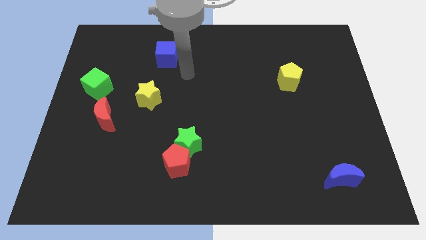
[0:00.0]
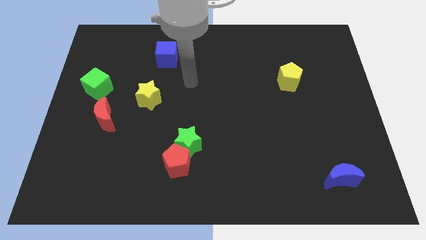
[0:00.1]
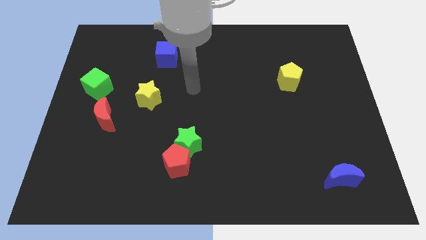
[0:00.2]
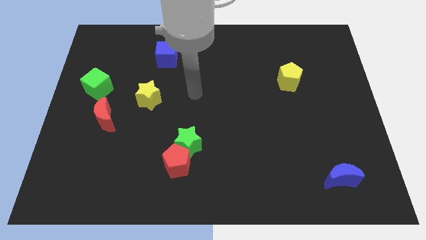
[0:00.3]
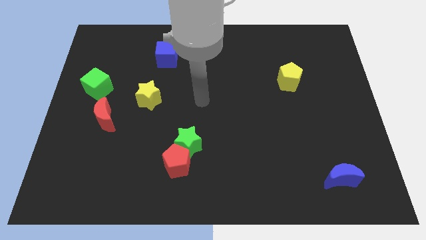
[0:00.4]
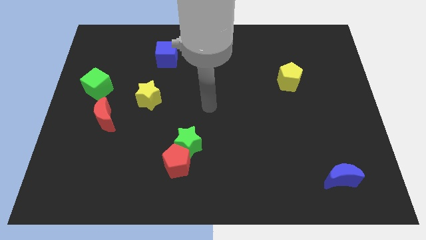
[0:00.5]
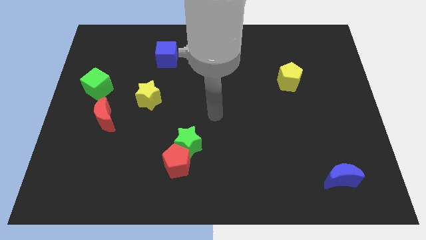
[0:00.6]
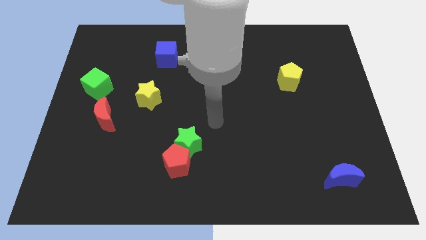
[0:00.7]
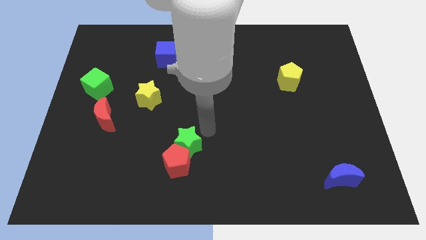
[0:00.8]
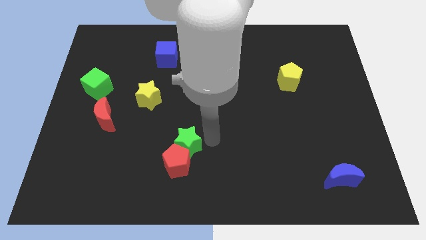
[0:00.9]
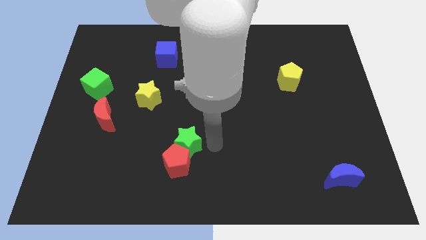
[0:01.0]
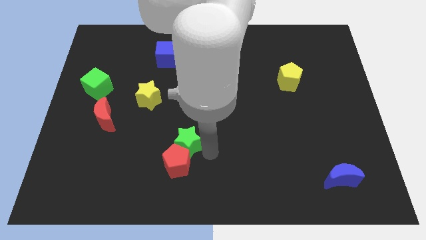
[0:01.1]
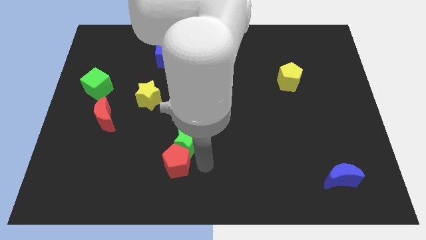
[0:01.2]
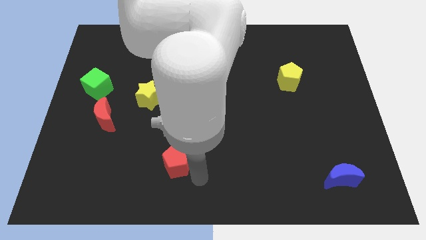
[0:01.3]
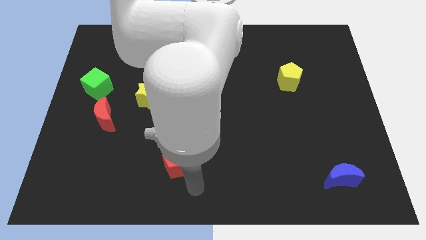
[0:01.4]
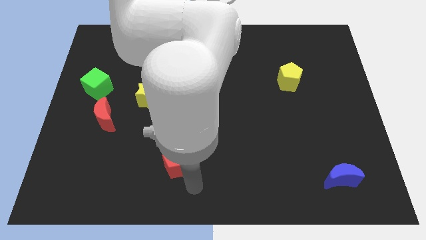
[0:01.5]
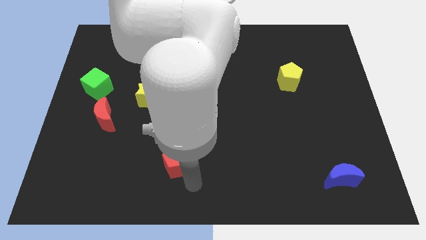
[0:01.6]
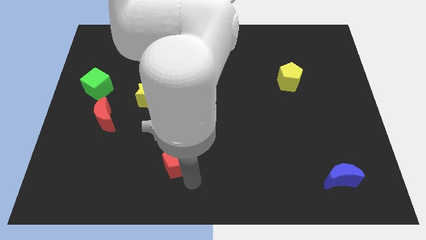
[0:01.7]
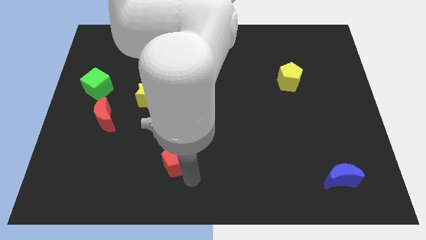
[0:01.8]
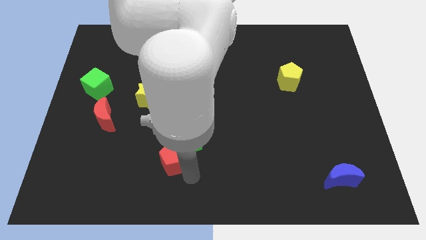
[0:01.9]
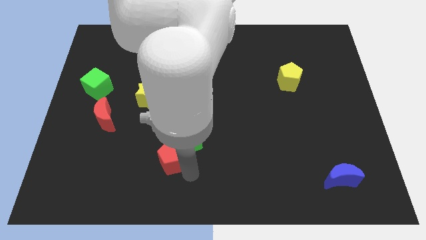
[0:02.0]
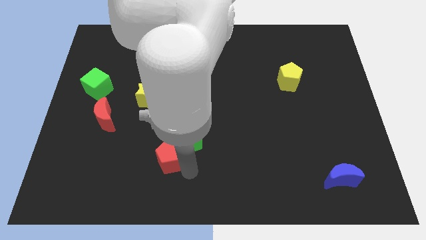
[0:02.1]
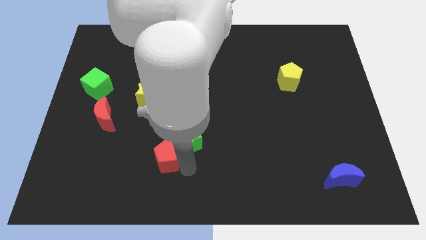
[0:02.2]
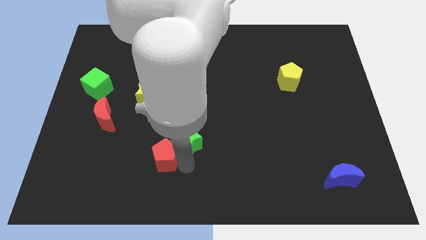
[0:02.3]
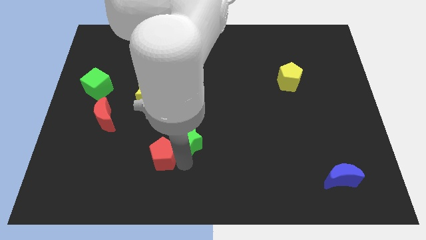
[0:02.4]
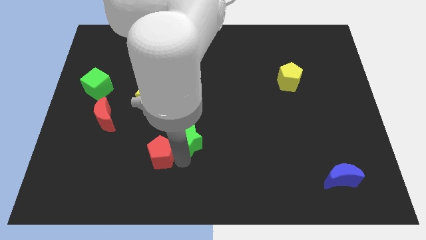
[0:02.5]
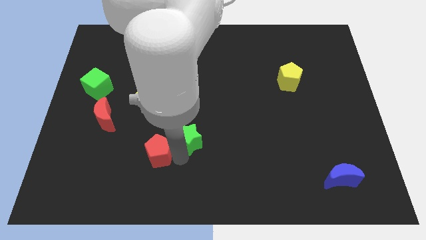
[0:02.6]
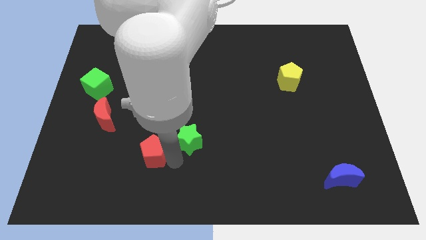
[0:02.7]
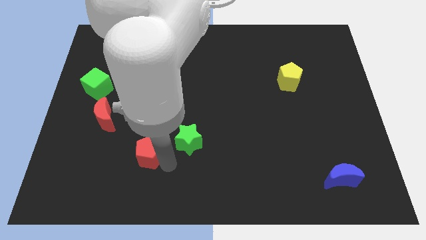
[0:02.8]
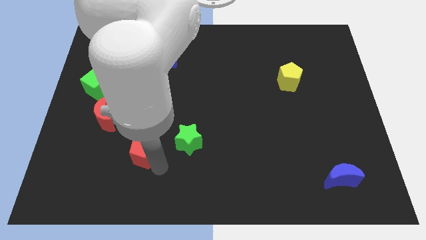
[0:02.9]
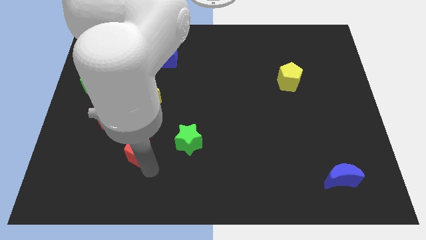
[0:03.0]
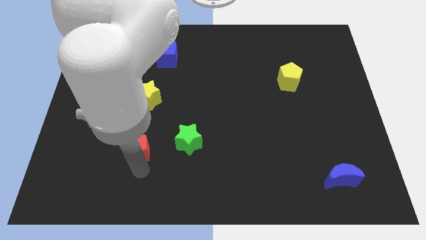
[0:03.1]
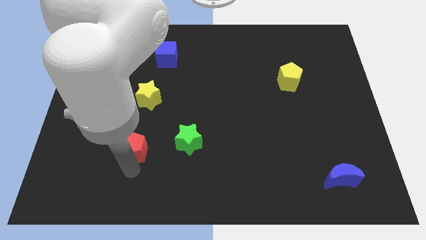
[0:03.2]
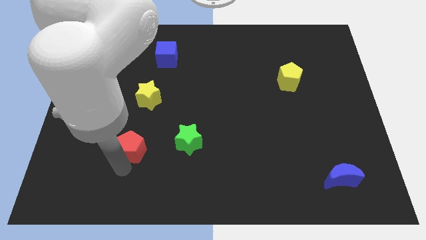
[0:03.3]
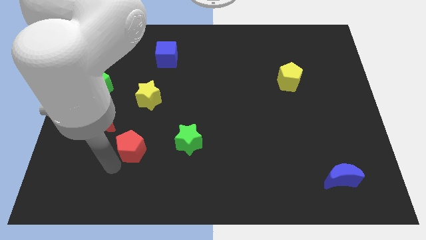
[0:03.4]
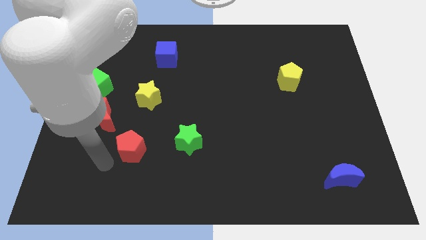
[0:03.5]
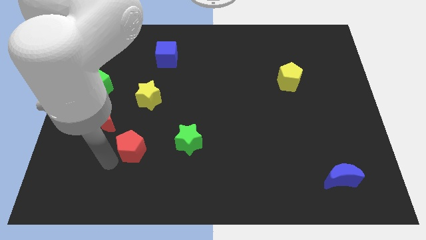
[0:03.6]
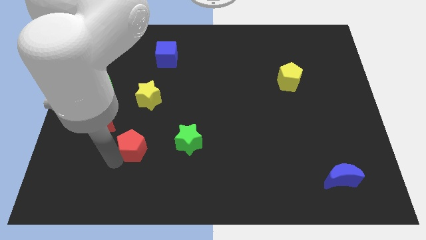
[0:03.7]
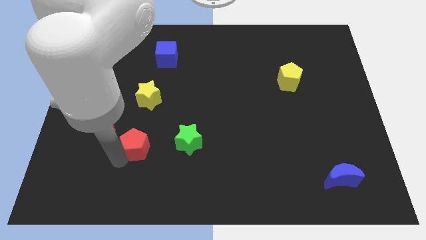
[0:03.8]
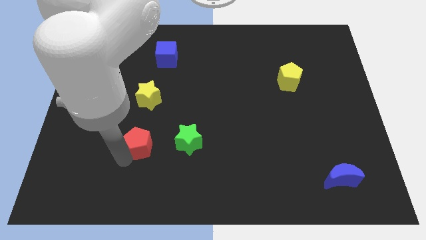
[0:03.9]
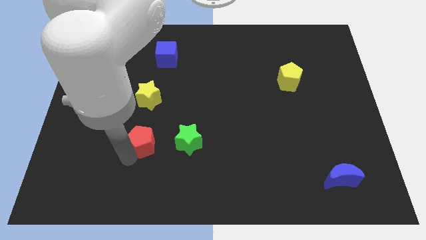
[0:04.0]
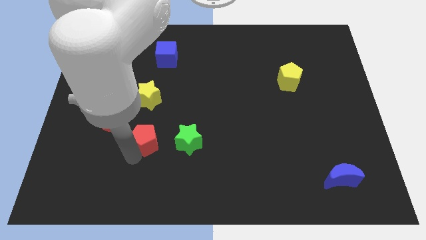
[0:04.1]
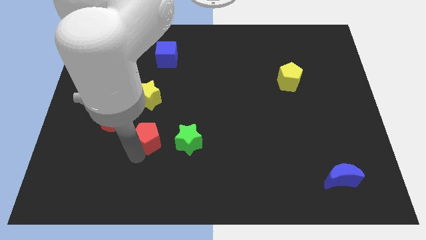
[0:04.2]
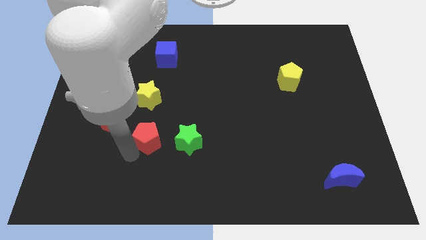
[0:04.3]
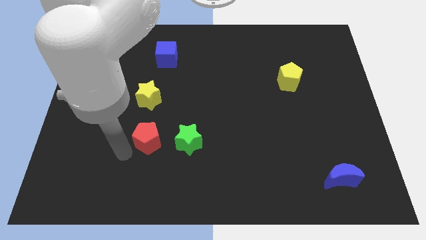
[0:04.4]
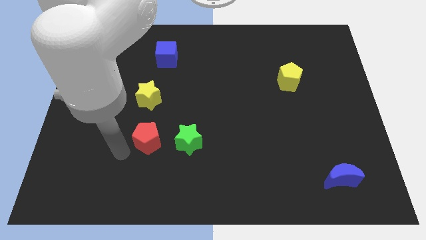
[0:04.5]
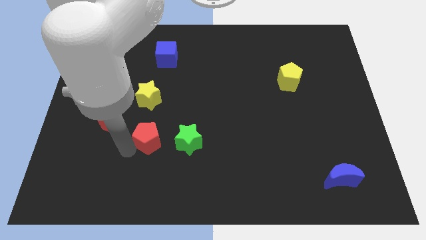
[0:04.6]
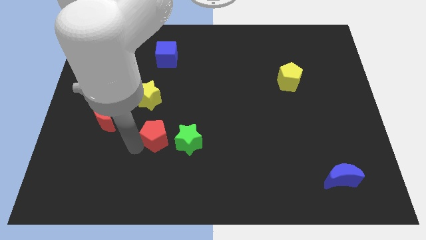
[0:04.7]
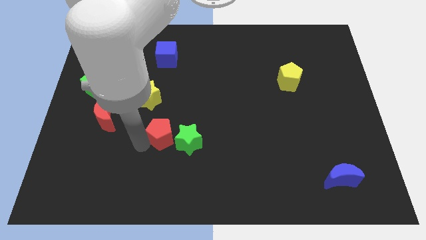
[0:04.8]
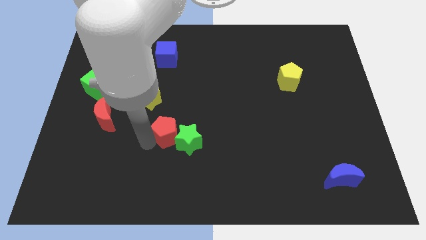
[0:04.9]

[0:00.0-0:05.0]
slightly push the red pentagon upwards

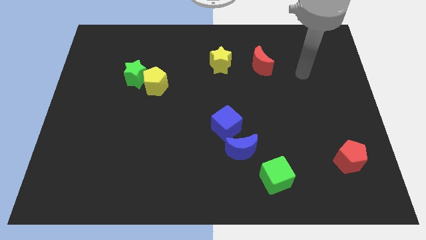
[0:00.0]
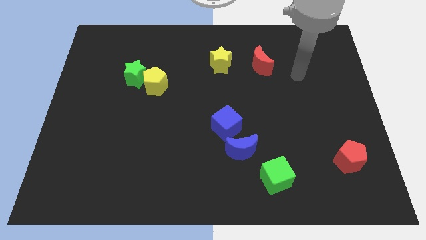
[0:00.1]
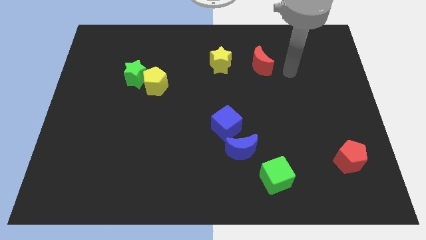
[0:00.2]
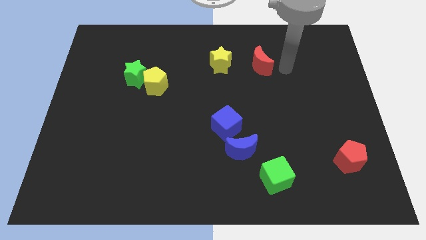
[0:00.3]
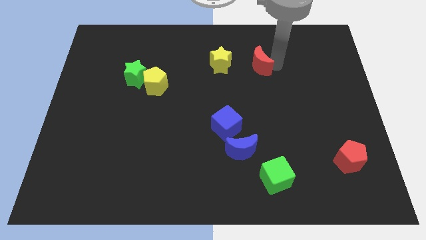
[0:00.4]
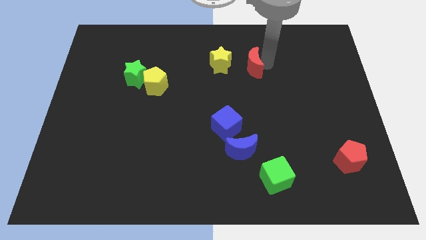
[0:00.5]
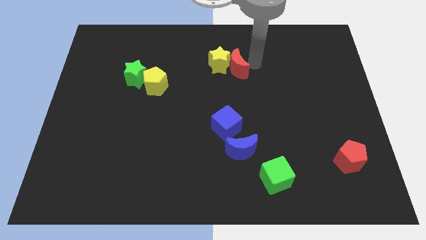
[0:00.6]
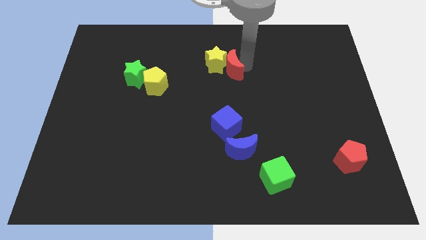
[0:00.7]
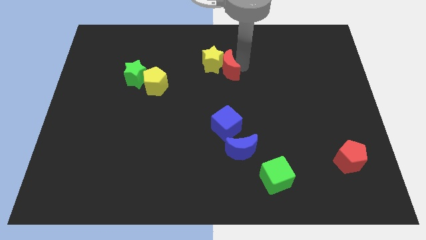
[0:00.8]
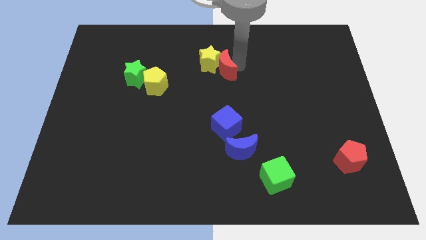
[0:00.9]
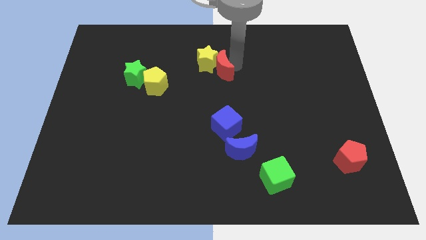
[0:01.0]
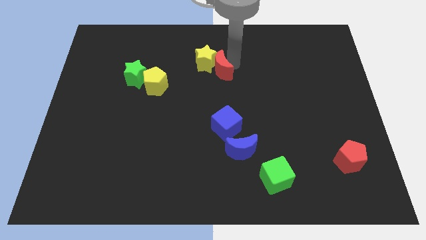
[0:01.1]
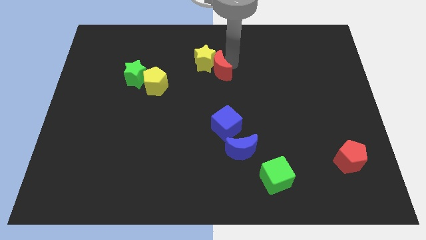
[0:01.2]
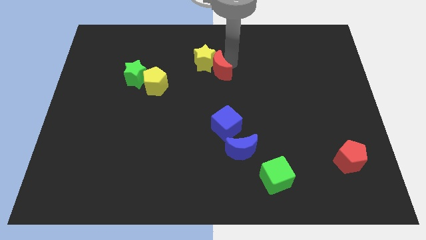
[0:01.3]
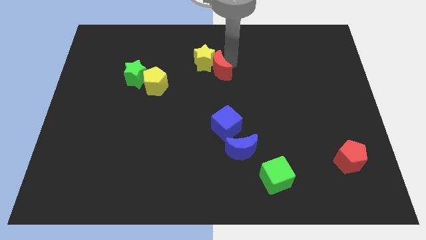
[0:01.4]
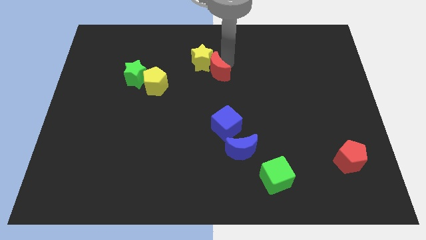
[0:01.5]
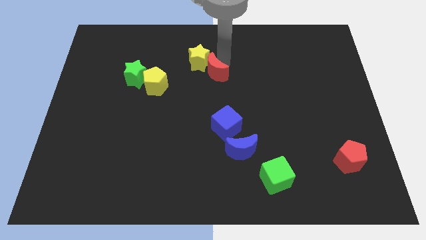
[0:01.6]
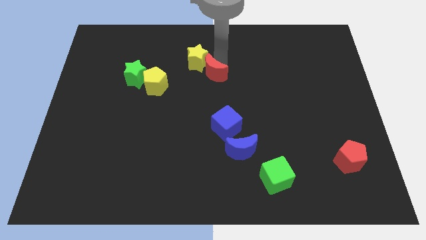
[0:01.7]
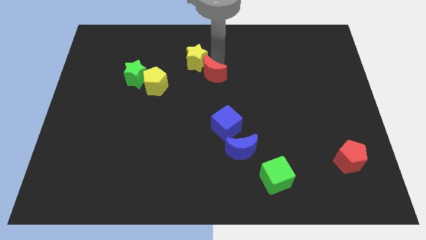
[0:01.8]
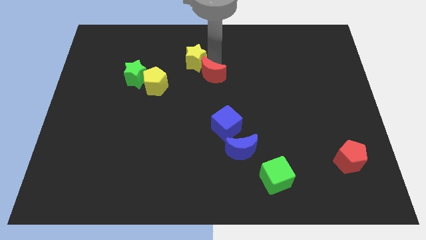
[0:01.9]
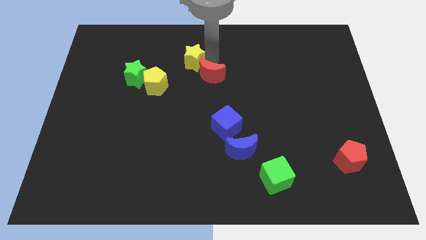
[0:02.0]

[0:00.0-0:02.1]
slide the yellow star to the left a little

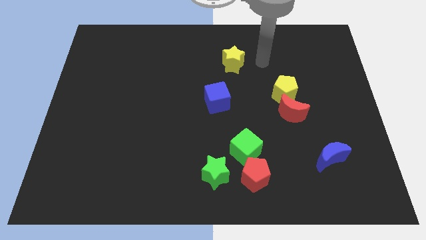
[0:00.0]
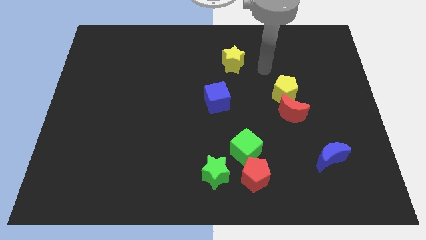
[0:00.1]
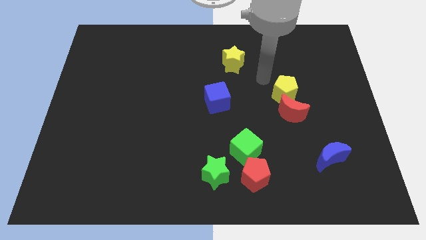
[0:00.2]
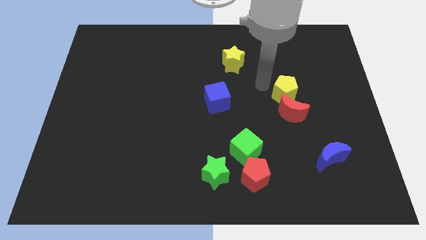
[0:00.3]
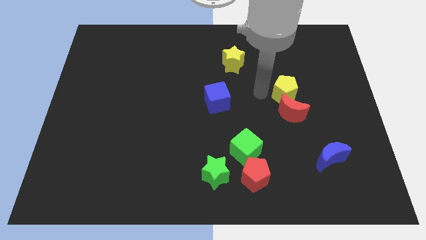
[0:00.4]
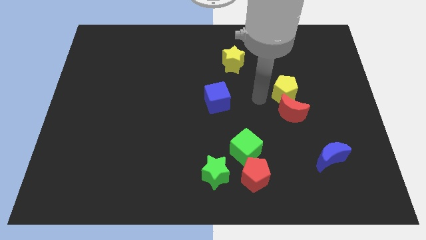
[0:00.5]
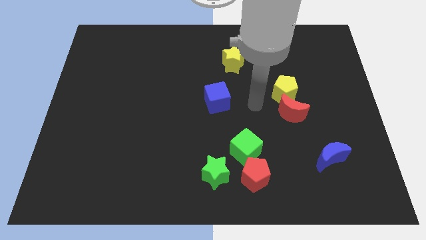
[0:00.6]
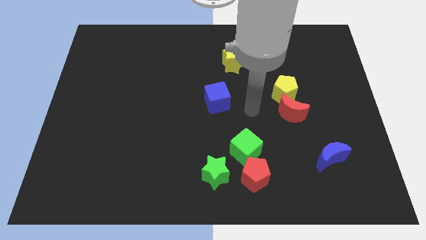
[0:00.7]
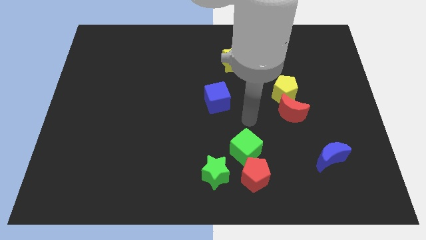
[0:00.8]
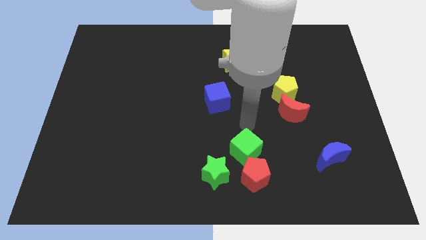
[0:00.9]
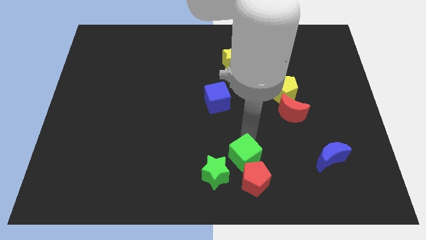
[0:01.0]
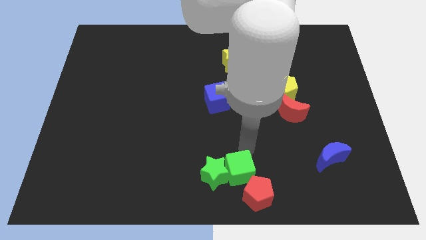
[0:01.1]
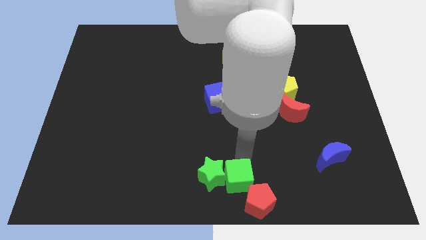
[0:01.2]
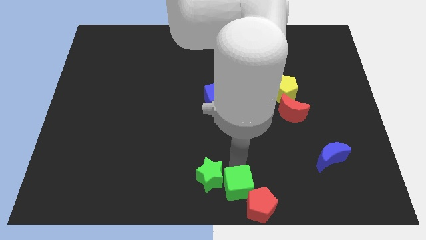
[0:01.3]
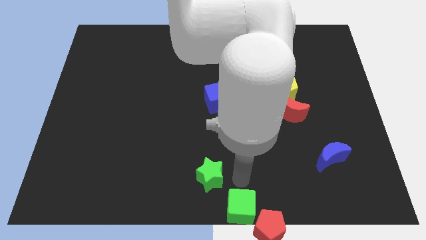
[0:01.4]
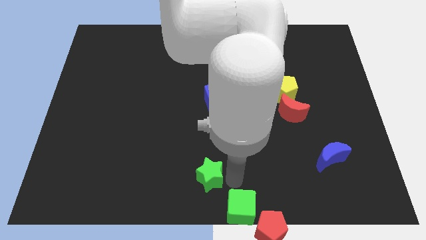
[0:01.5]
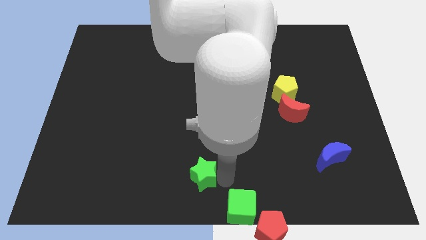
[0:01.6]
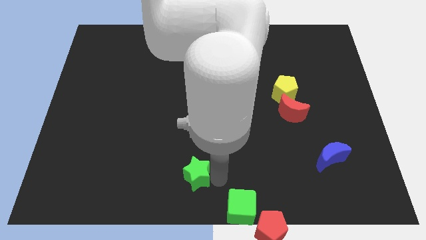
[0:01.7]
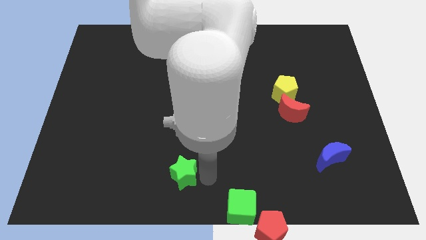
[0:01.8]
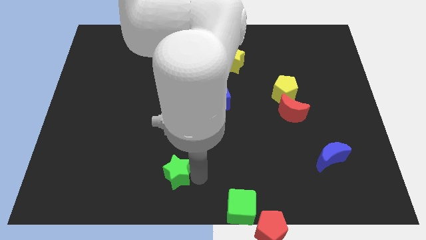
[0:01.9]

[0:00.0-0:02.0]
push the green star slightly to the left
